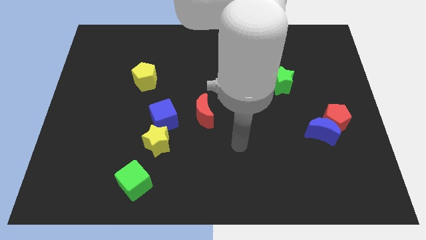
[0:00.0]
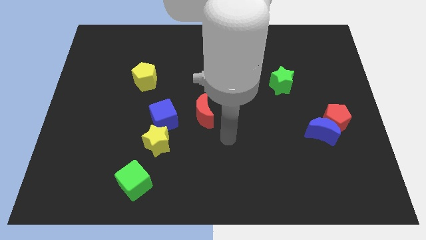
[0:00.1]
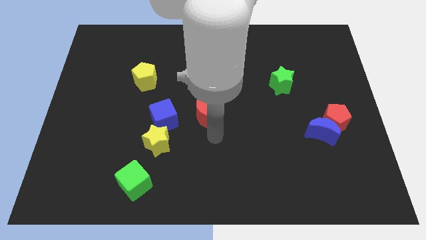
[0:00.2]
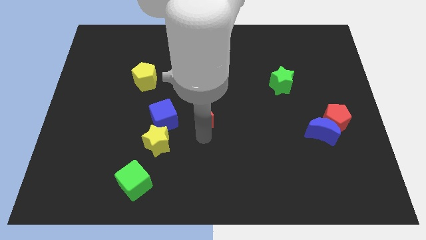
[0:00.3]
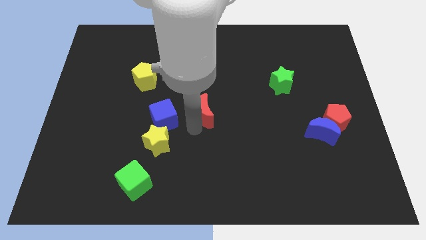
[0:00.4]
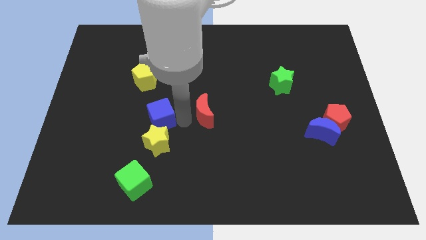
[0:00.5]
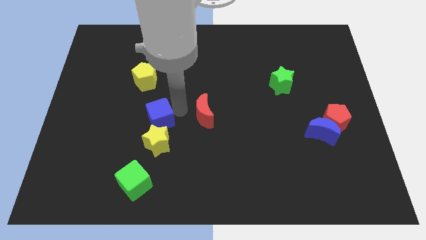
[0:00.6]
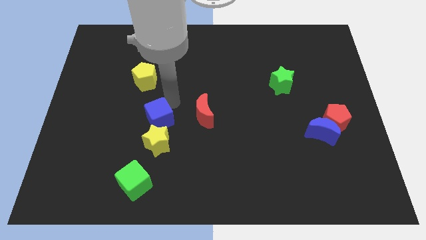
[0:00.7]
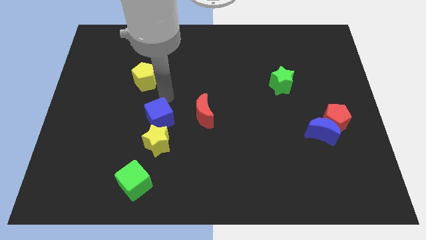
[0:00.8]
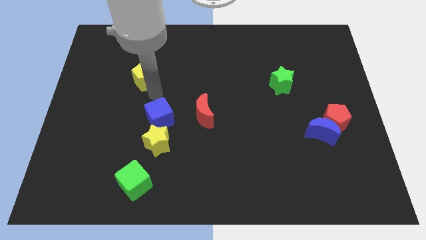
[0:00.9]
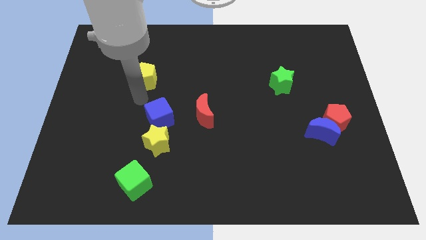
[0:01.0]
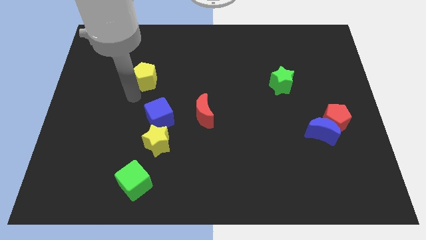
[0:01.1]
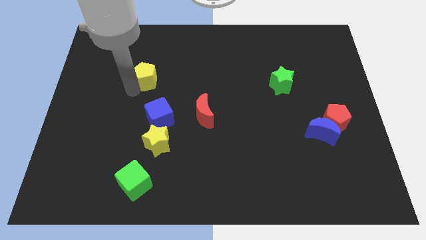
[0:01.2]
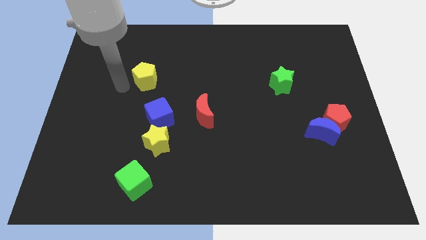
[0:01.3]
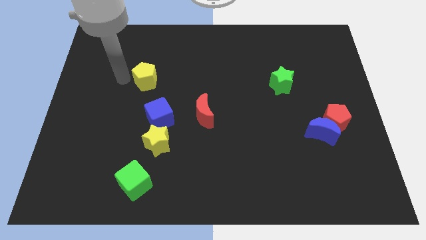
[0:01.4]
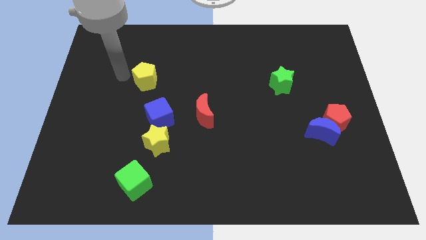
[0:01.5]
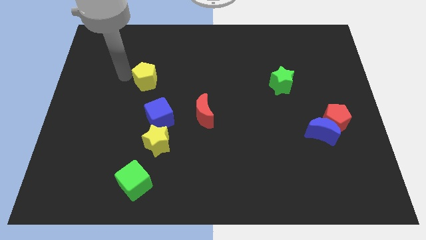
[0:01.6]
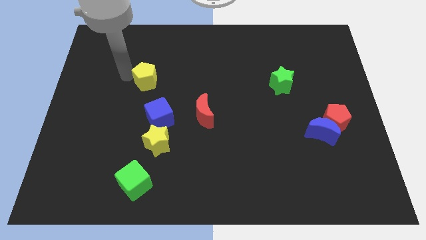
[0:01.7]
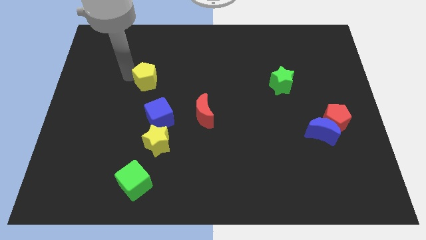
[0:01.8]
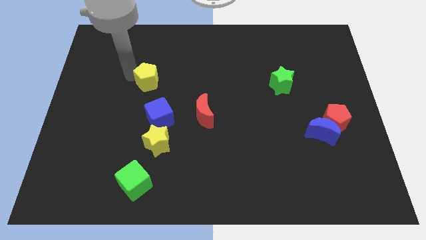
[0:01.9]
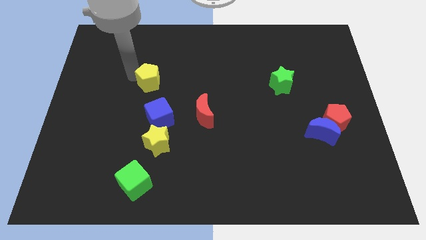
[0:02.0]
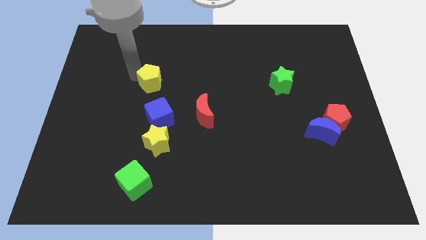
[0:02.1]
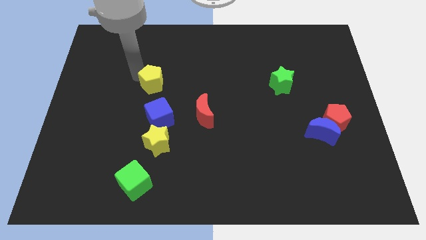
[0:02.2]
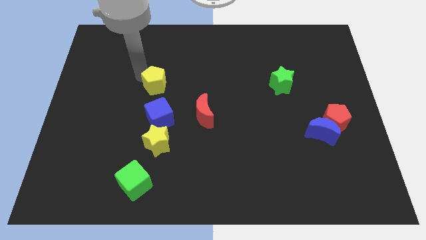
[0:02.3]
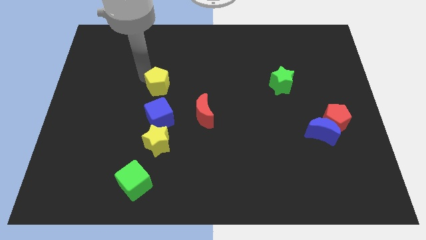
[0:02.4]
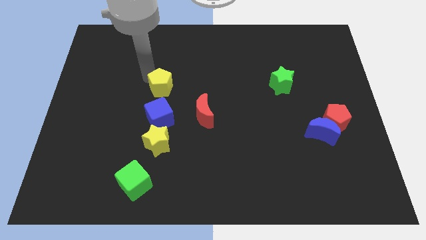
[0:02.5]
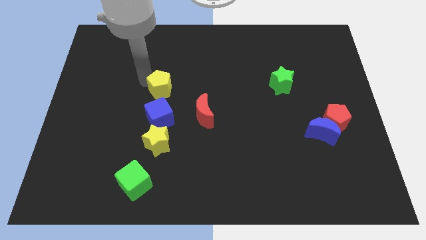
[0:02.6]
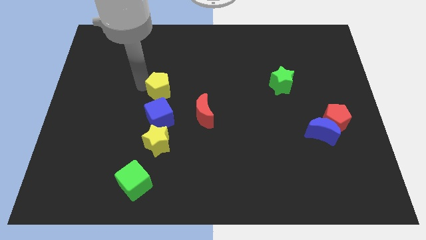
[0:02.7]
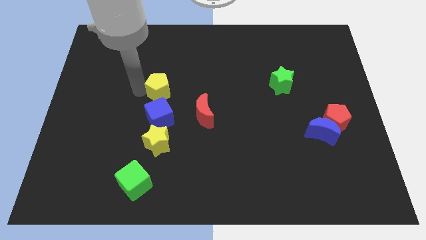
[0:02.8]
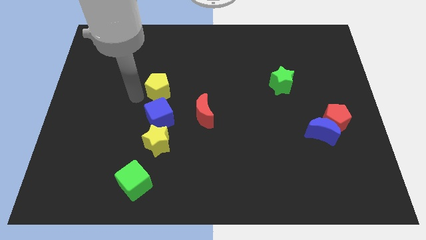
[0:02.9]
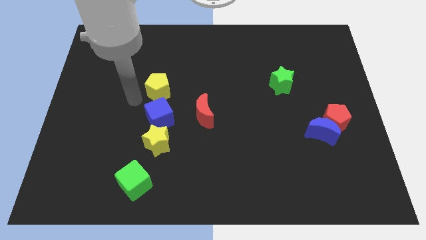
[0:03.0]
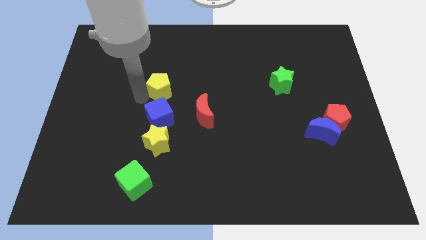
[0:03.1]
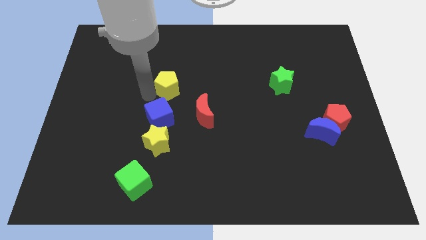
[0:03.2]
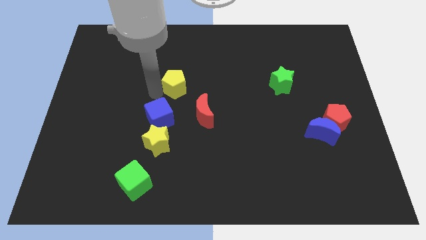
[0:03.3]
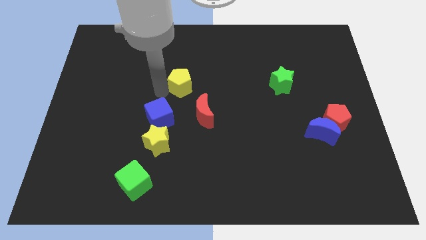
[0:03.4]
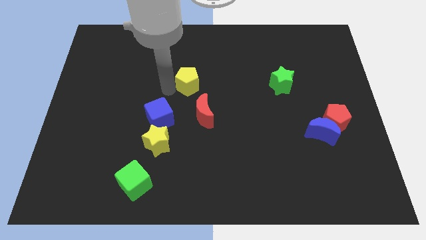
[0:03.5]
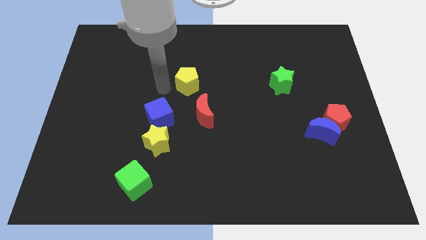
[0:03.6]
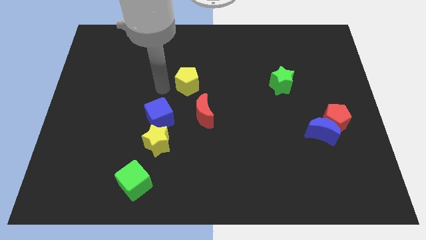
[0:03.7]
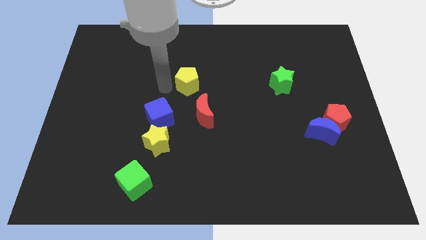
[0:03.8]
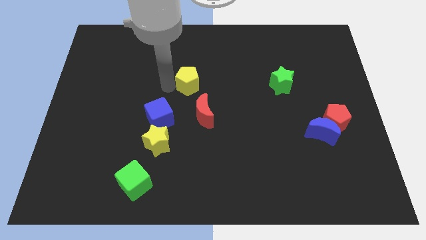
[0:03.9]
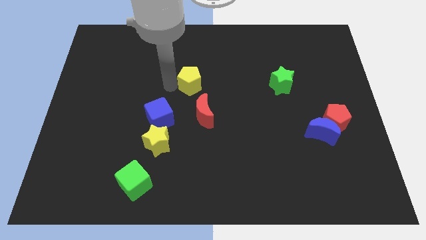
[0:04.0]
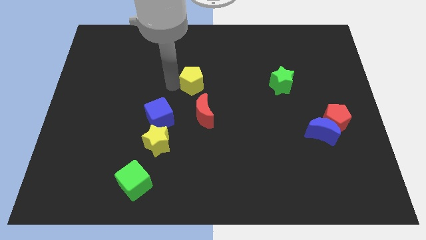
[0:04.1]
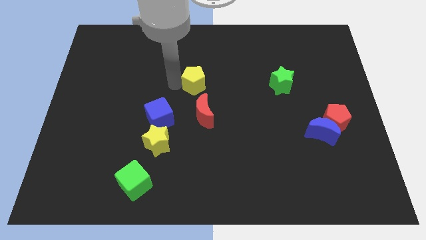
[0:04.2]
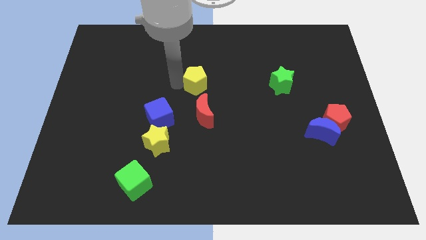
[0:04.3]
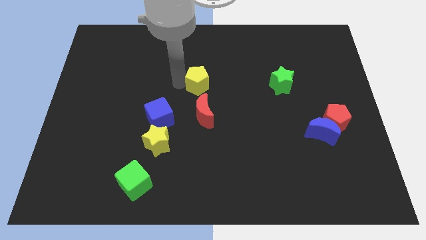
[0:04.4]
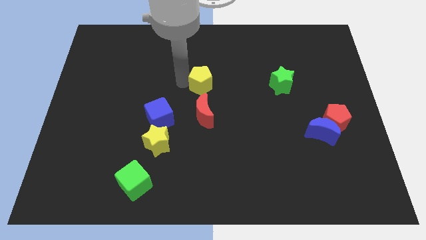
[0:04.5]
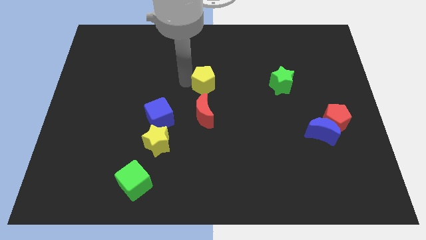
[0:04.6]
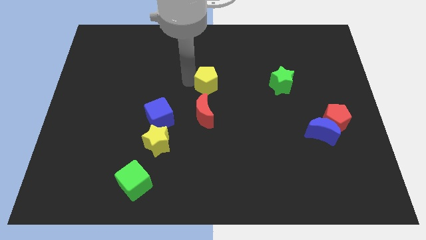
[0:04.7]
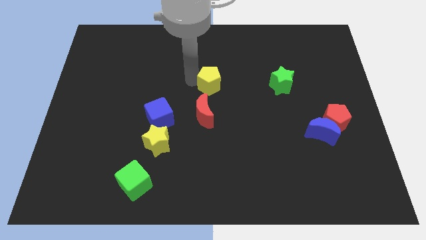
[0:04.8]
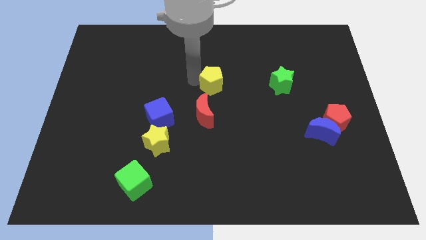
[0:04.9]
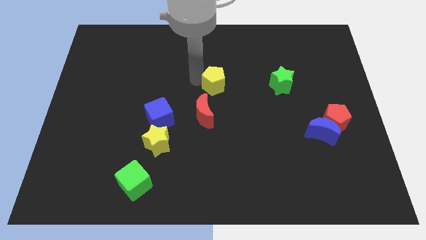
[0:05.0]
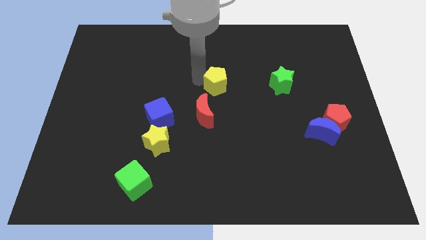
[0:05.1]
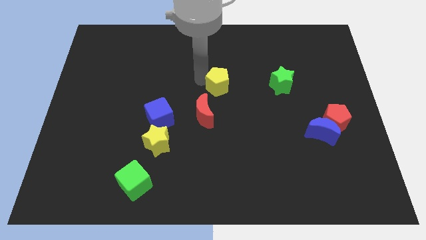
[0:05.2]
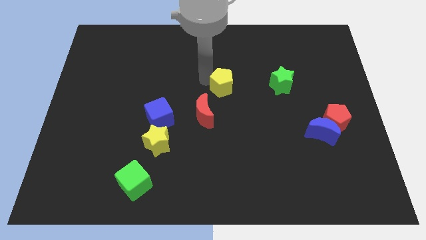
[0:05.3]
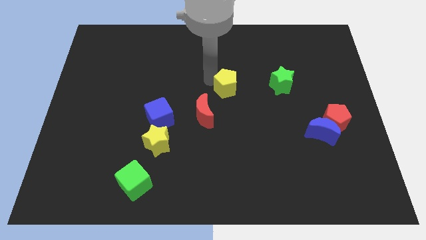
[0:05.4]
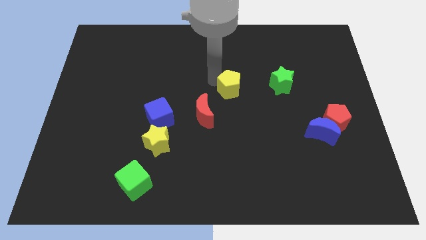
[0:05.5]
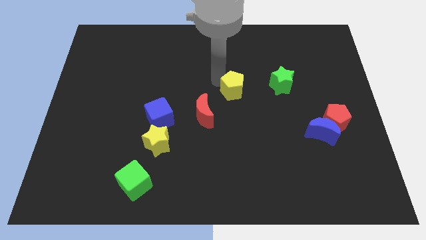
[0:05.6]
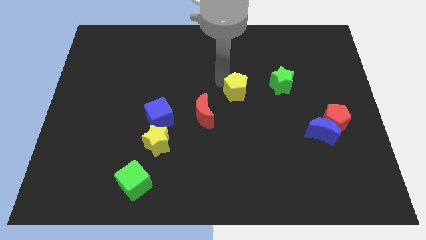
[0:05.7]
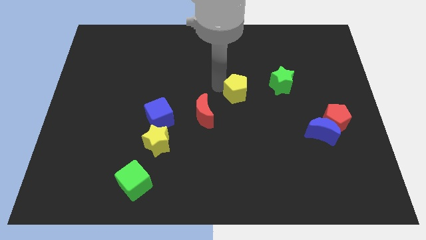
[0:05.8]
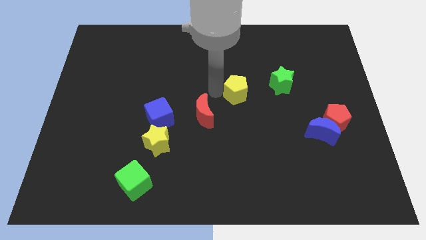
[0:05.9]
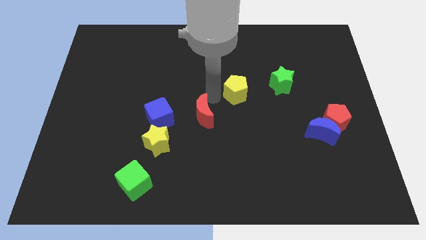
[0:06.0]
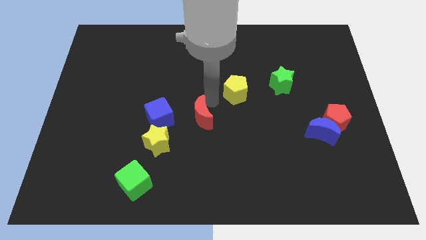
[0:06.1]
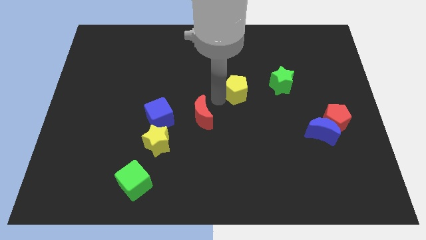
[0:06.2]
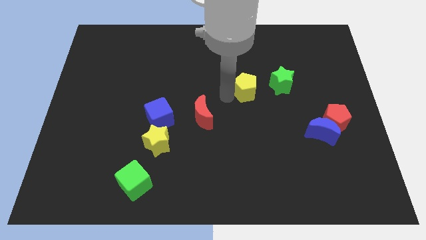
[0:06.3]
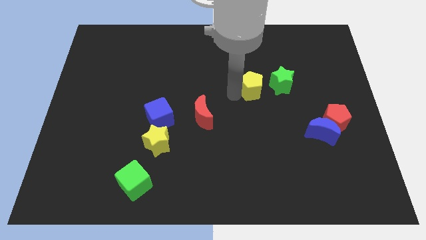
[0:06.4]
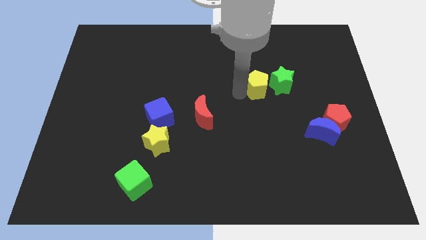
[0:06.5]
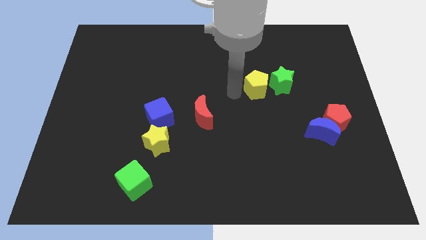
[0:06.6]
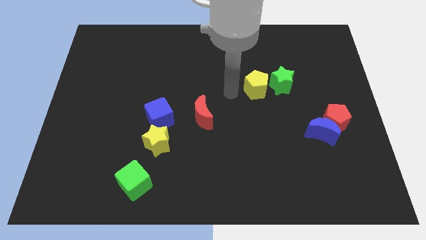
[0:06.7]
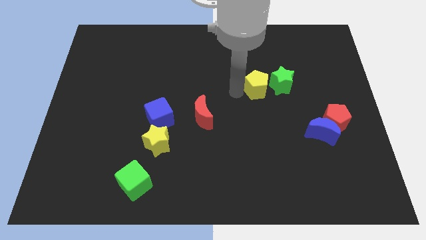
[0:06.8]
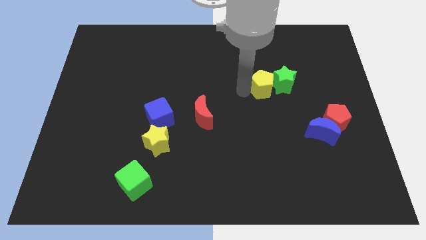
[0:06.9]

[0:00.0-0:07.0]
move the yellow pentagon close to the green star
